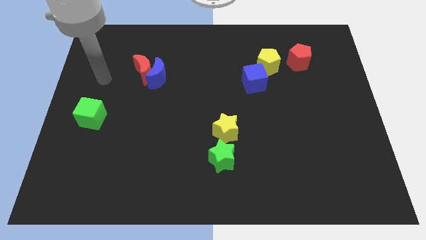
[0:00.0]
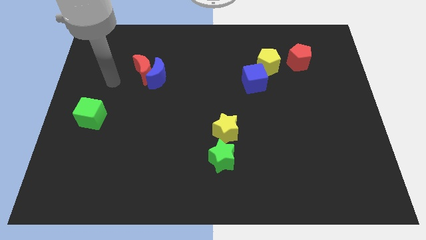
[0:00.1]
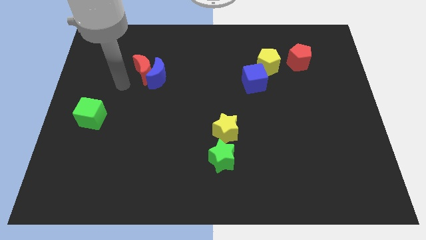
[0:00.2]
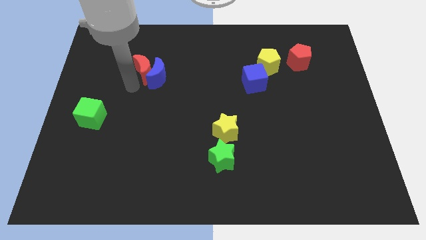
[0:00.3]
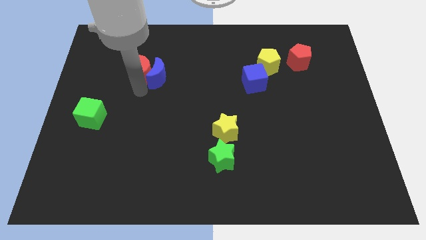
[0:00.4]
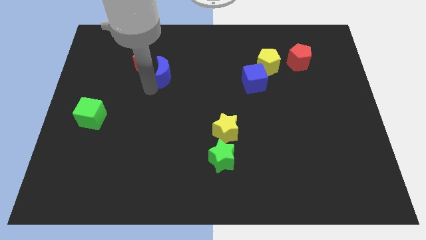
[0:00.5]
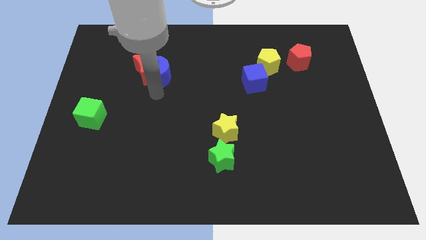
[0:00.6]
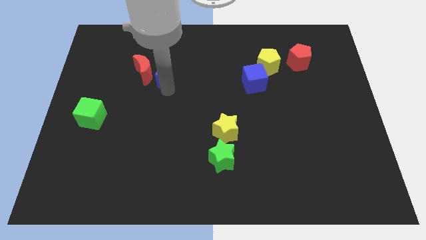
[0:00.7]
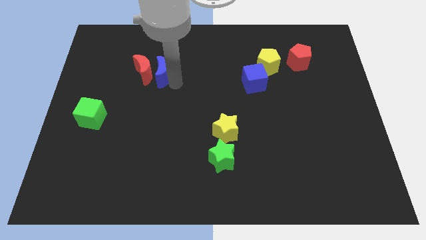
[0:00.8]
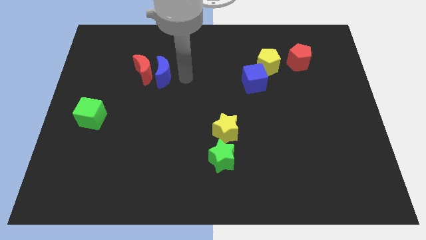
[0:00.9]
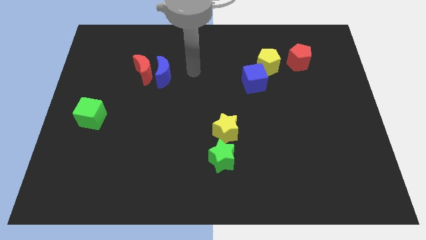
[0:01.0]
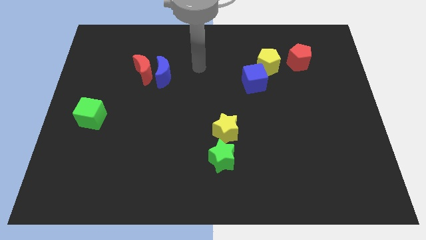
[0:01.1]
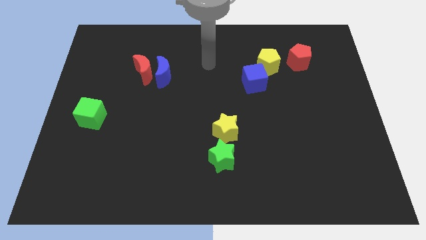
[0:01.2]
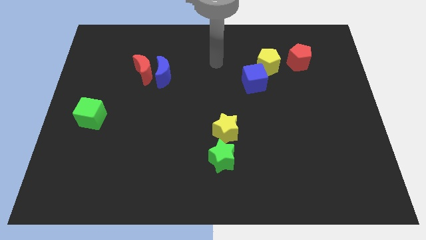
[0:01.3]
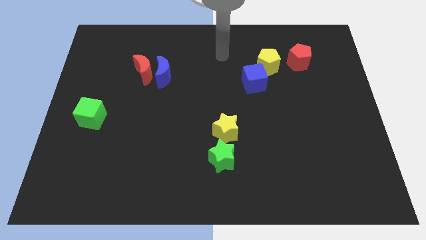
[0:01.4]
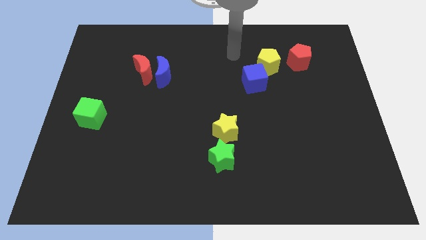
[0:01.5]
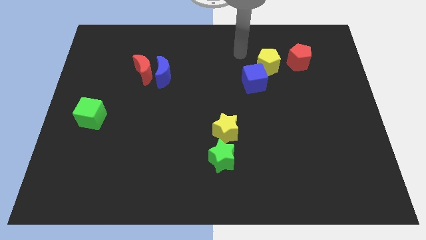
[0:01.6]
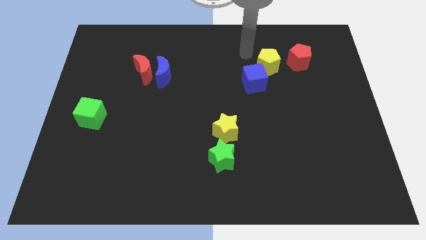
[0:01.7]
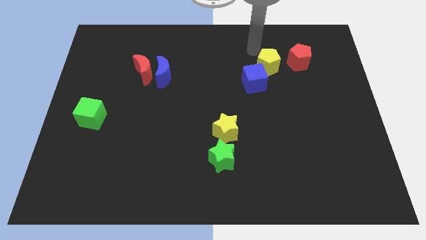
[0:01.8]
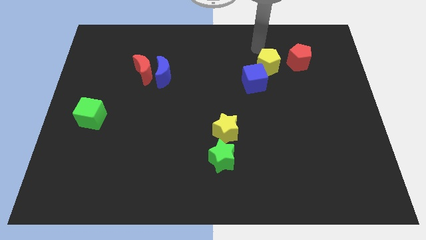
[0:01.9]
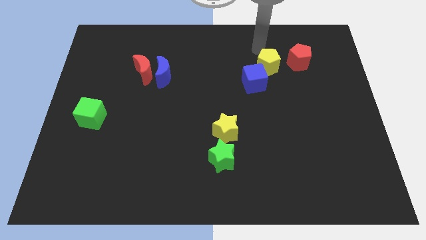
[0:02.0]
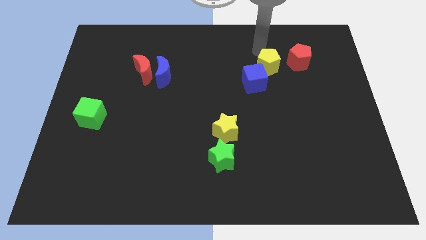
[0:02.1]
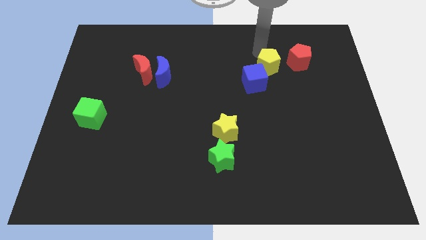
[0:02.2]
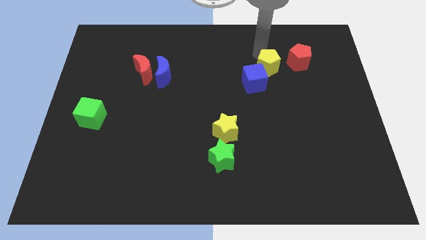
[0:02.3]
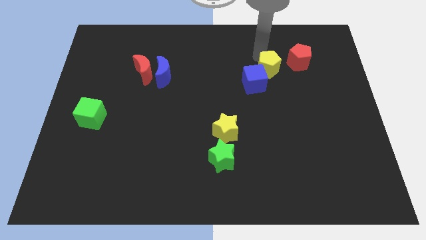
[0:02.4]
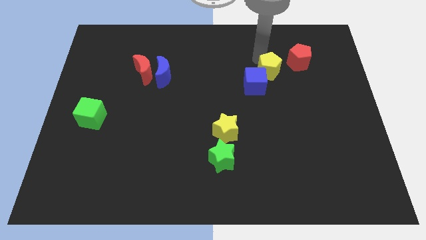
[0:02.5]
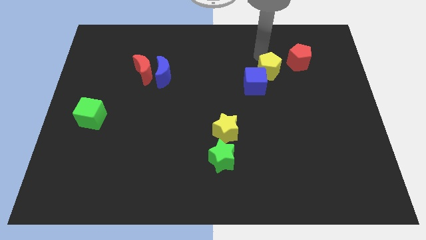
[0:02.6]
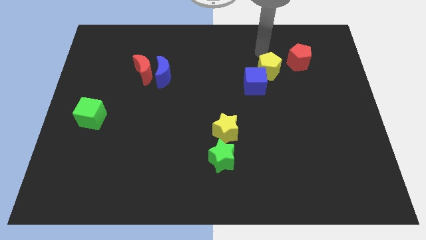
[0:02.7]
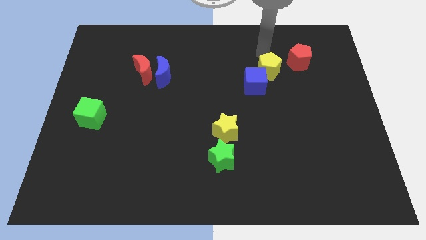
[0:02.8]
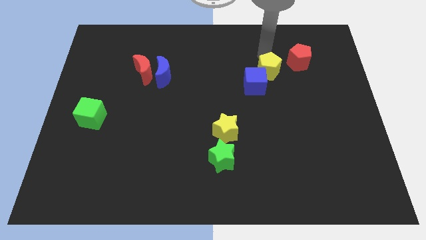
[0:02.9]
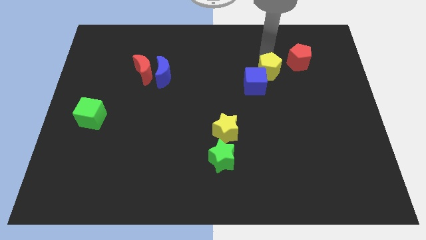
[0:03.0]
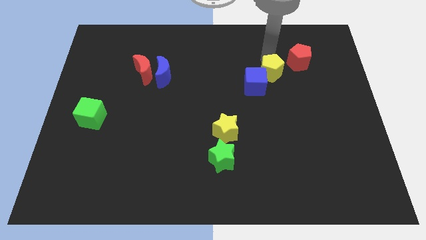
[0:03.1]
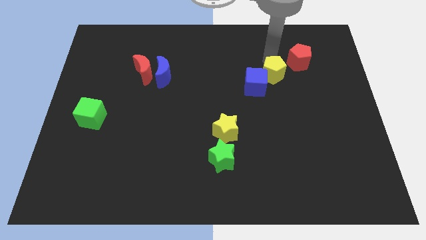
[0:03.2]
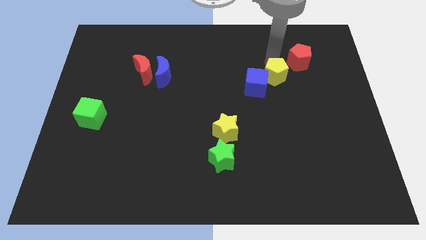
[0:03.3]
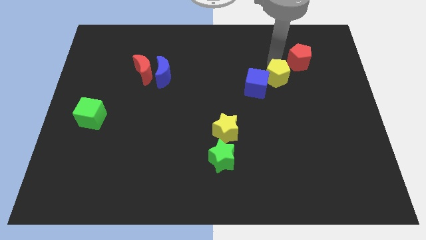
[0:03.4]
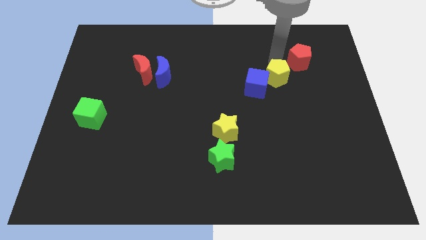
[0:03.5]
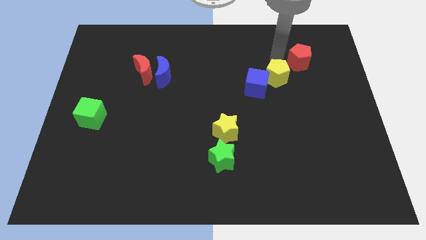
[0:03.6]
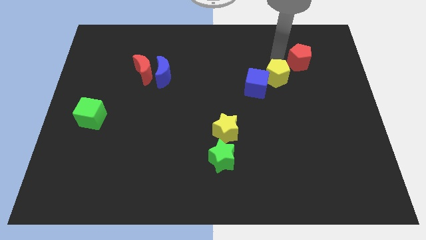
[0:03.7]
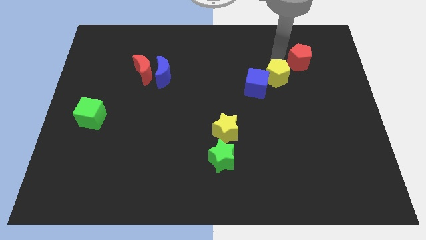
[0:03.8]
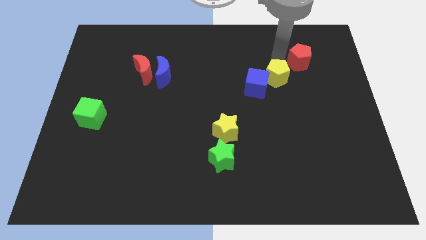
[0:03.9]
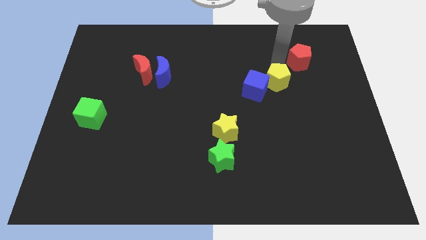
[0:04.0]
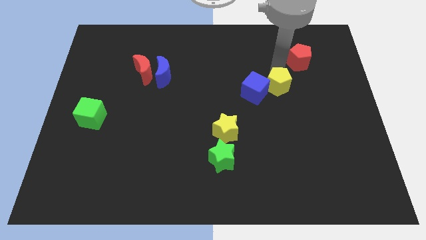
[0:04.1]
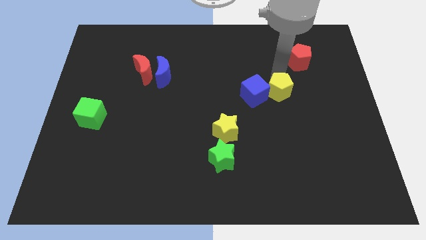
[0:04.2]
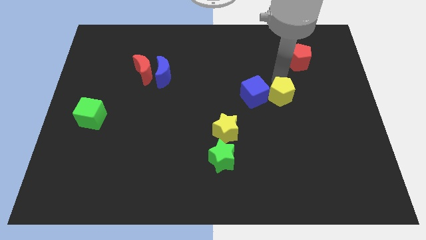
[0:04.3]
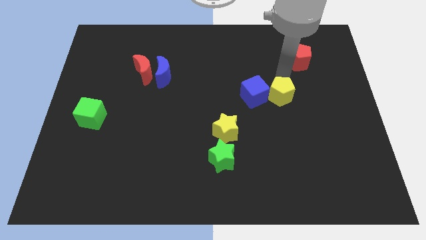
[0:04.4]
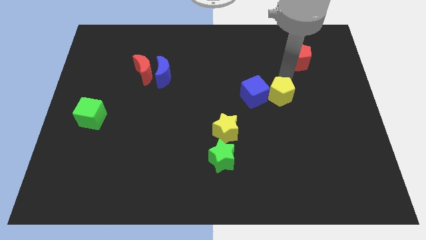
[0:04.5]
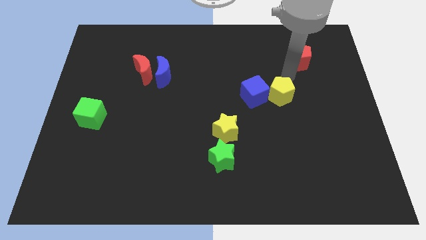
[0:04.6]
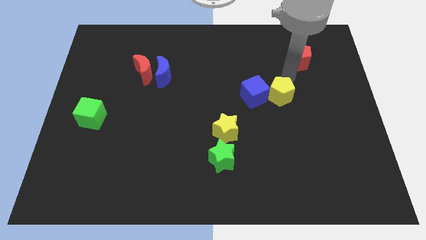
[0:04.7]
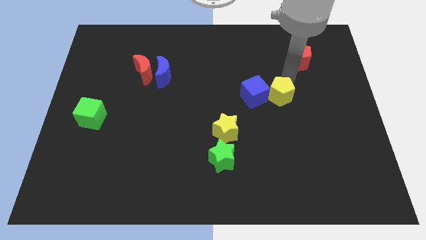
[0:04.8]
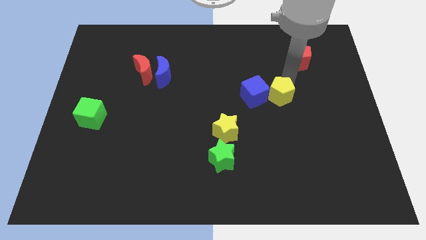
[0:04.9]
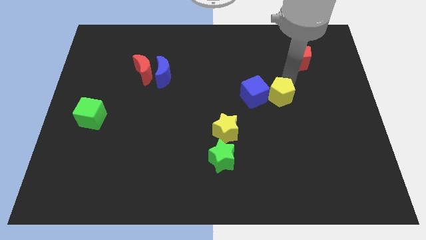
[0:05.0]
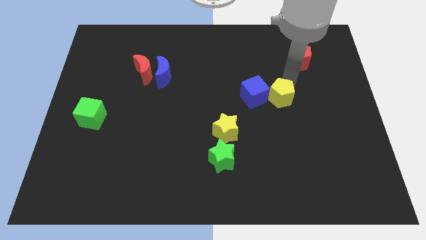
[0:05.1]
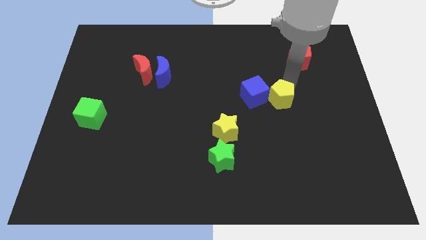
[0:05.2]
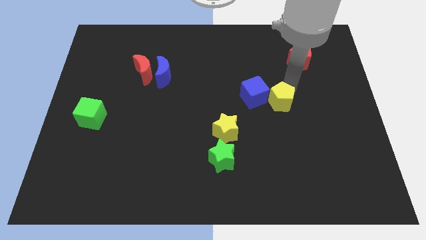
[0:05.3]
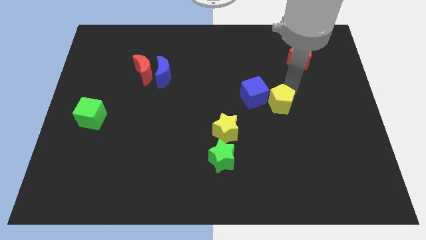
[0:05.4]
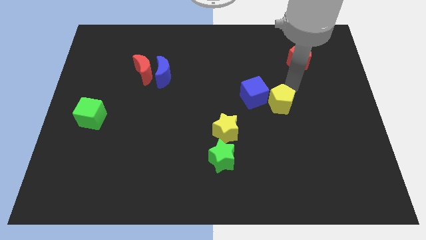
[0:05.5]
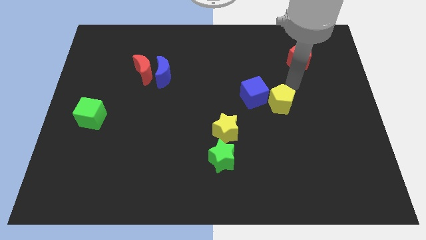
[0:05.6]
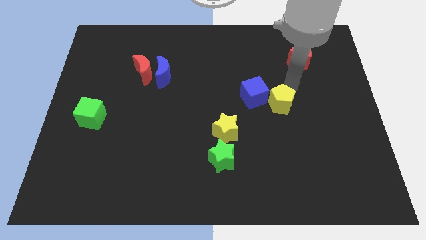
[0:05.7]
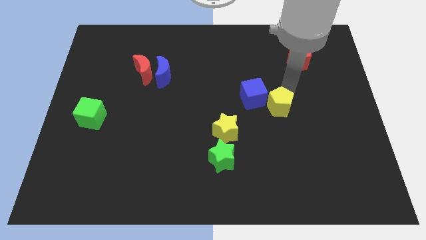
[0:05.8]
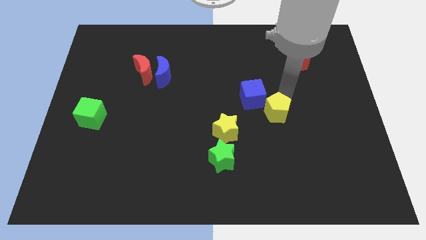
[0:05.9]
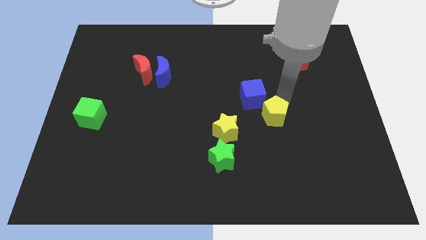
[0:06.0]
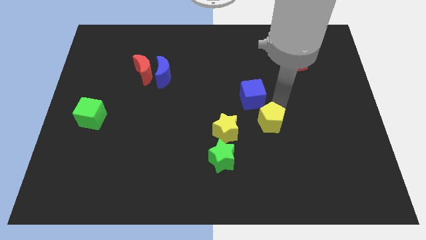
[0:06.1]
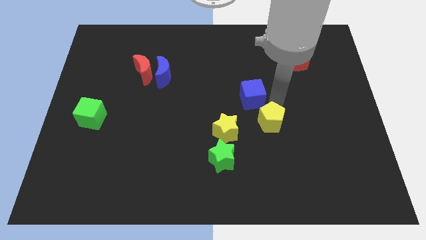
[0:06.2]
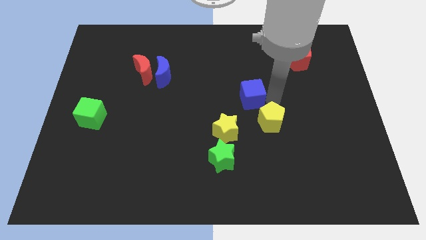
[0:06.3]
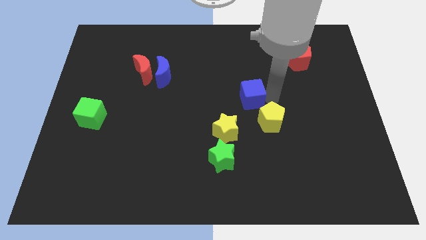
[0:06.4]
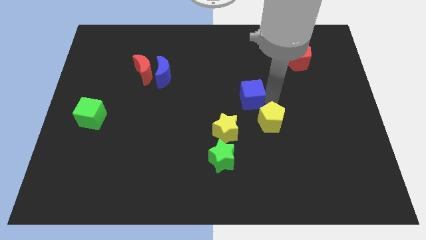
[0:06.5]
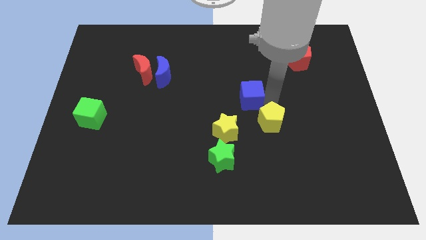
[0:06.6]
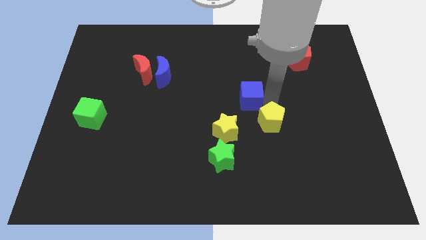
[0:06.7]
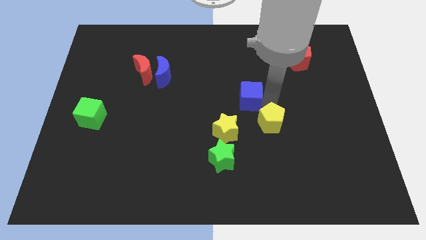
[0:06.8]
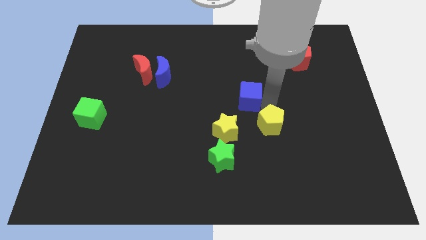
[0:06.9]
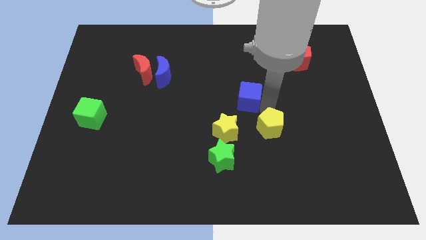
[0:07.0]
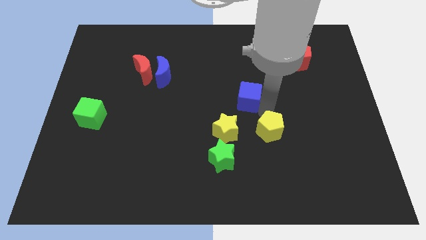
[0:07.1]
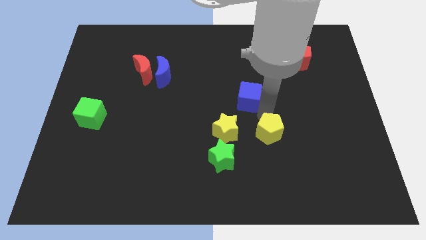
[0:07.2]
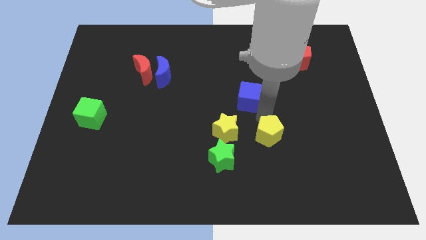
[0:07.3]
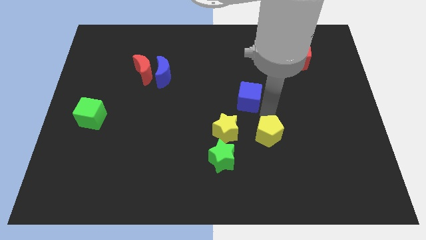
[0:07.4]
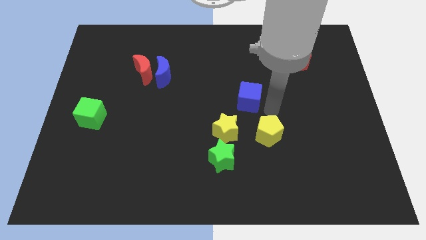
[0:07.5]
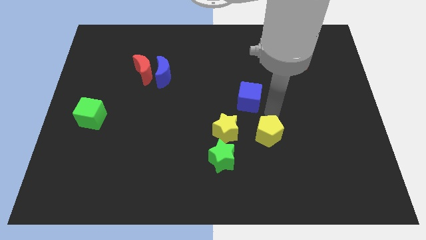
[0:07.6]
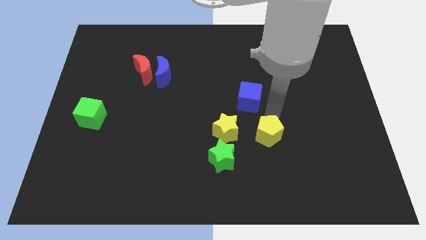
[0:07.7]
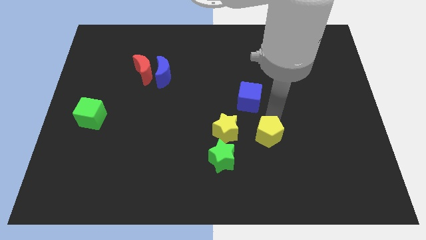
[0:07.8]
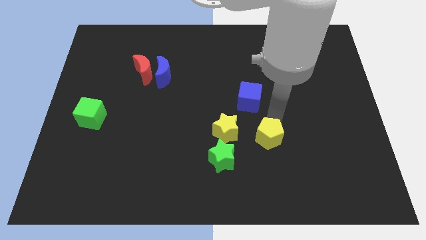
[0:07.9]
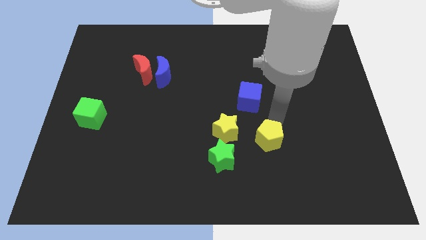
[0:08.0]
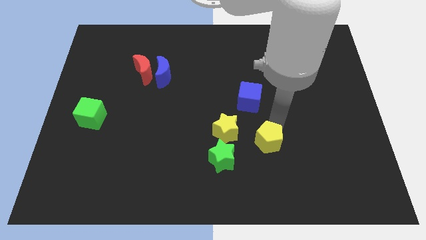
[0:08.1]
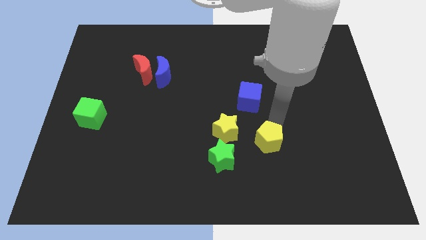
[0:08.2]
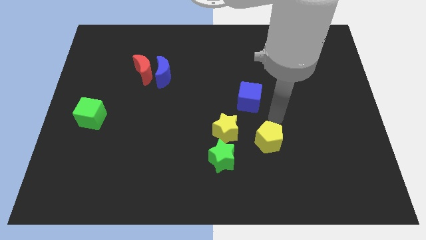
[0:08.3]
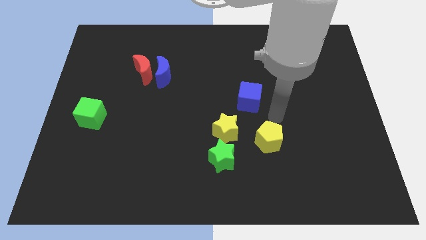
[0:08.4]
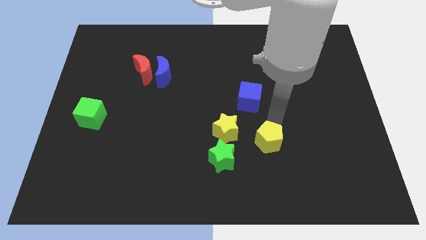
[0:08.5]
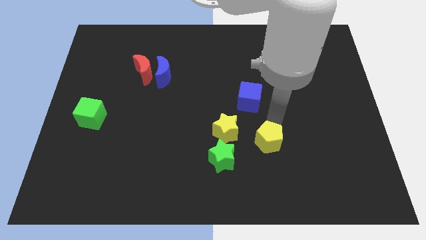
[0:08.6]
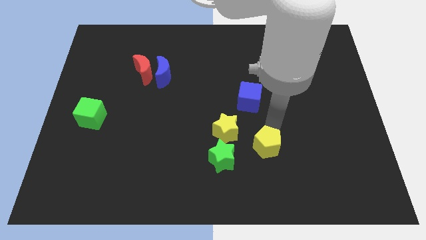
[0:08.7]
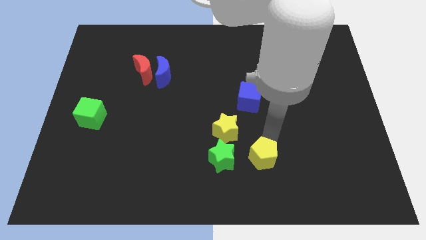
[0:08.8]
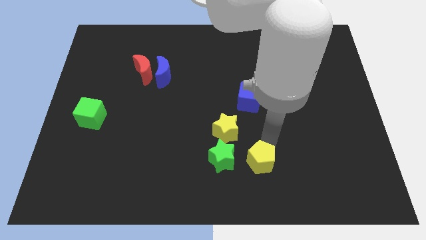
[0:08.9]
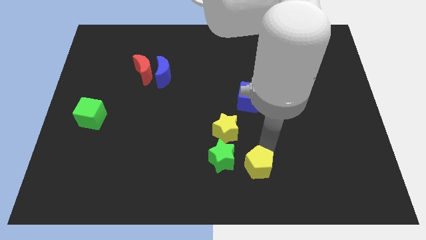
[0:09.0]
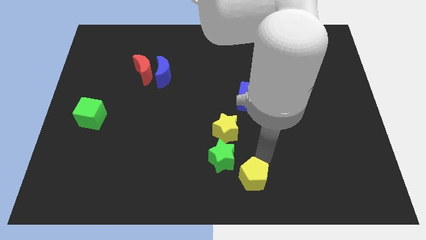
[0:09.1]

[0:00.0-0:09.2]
put the yellow pentagon to the bottom
